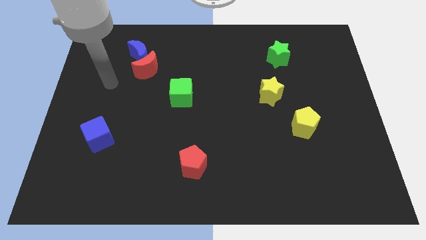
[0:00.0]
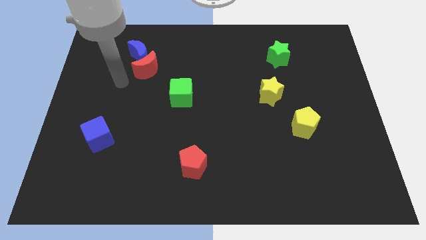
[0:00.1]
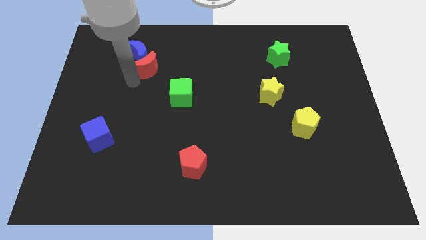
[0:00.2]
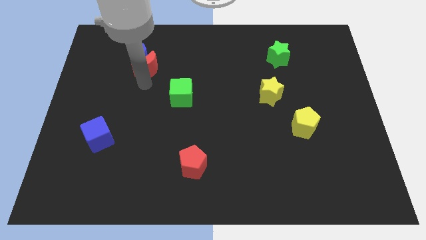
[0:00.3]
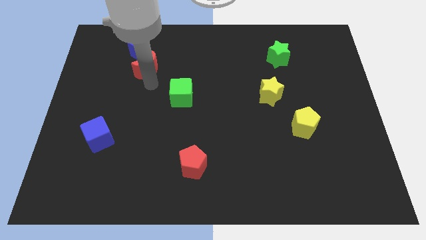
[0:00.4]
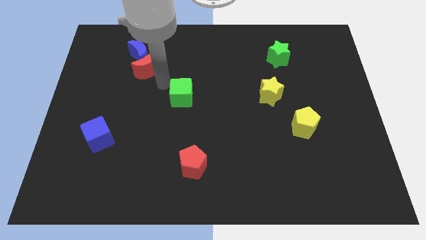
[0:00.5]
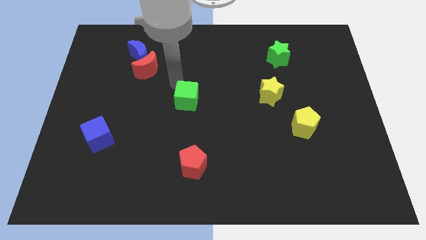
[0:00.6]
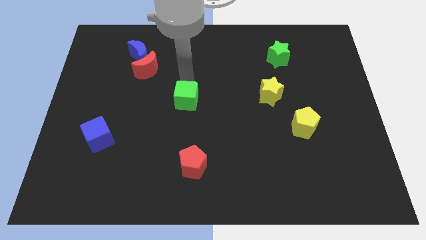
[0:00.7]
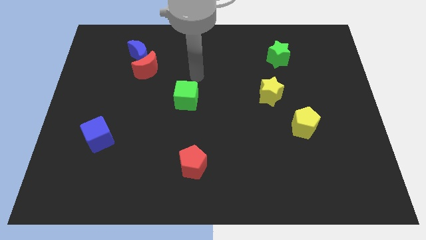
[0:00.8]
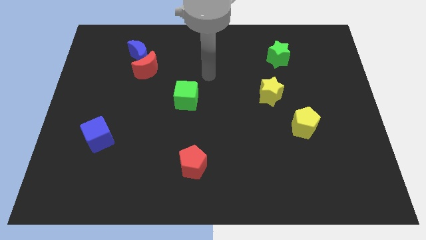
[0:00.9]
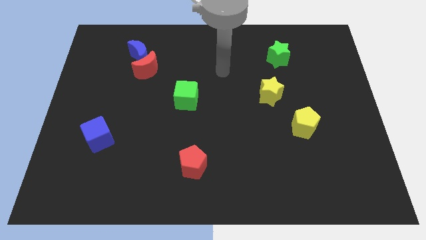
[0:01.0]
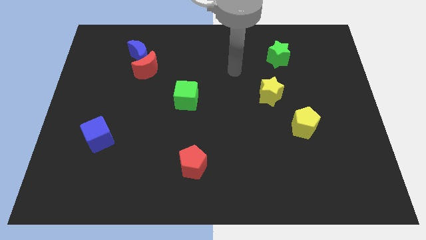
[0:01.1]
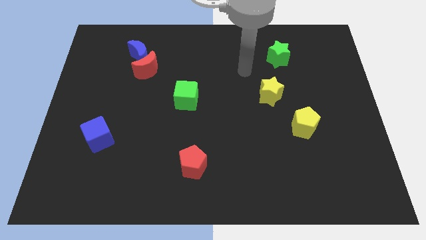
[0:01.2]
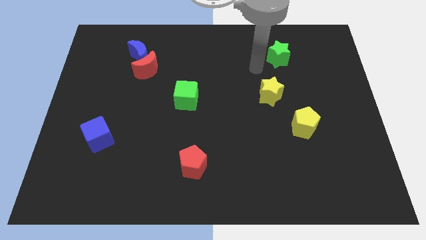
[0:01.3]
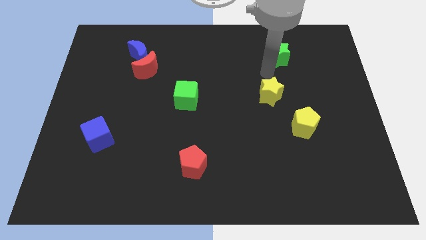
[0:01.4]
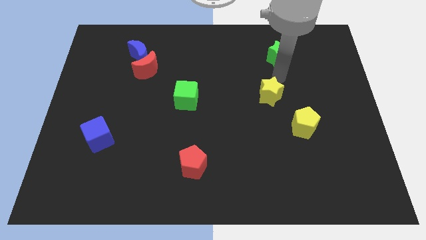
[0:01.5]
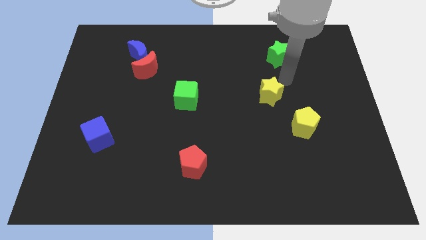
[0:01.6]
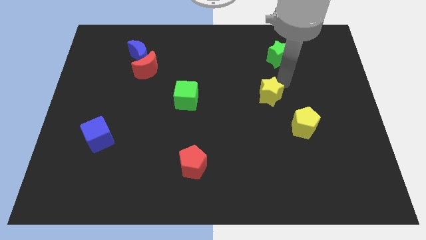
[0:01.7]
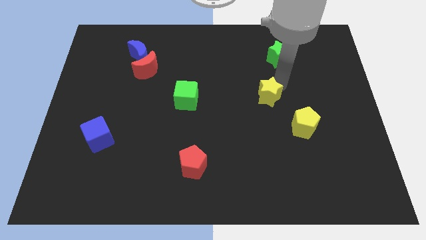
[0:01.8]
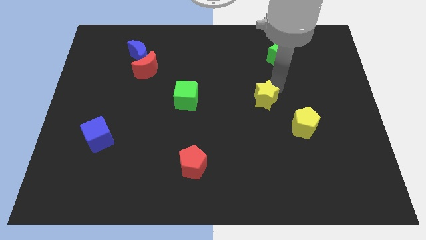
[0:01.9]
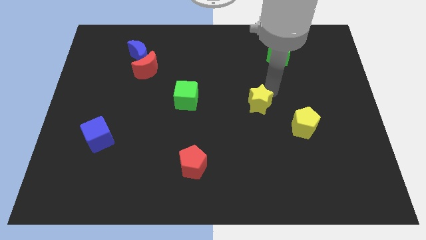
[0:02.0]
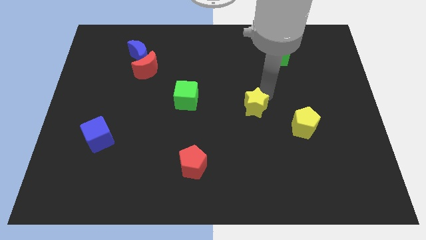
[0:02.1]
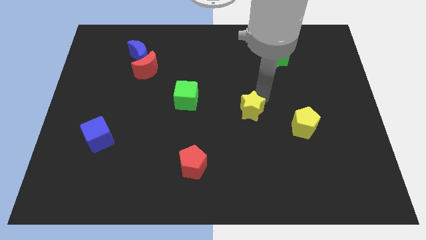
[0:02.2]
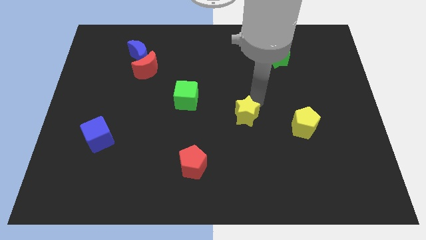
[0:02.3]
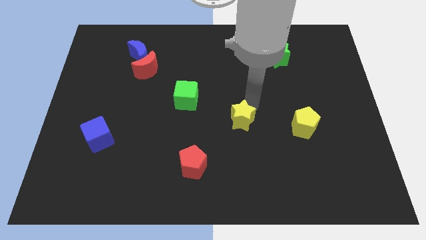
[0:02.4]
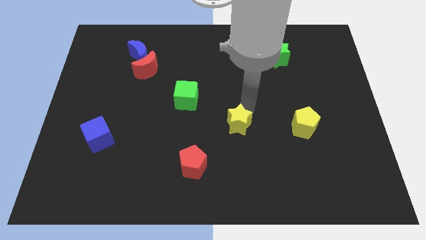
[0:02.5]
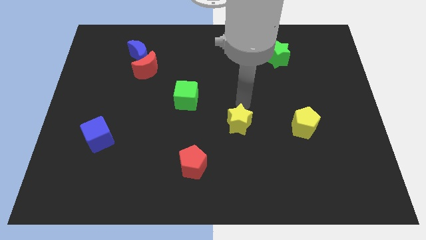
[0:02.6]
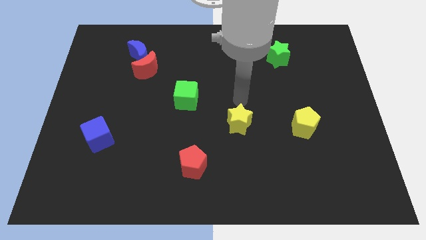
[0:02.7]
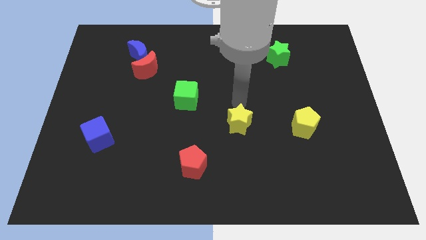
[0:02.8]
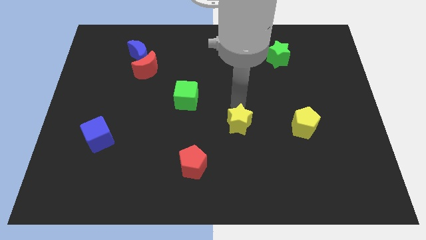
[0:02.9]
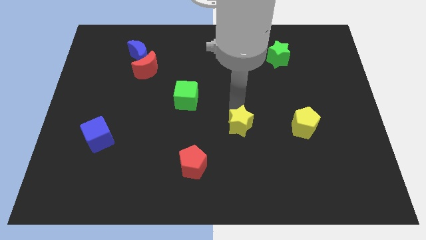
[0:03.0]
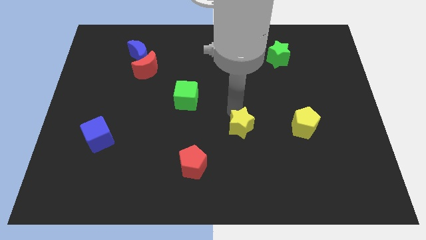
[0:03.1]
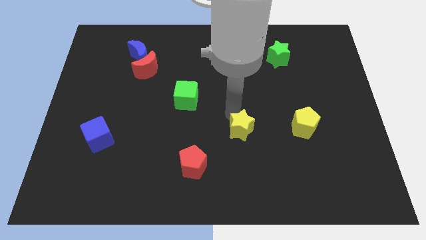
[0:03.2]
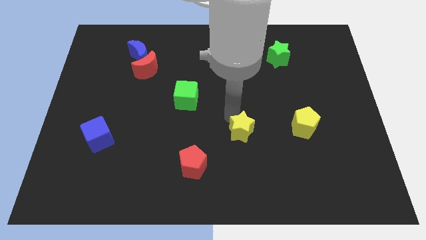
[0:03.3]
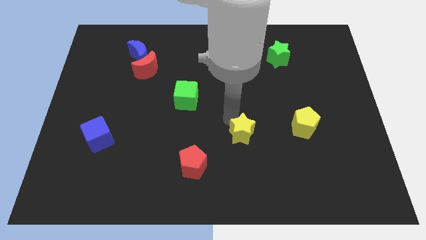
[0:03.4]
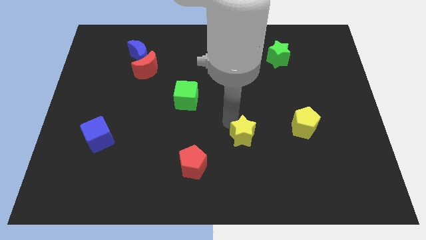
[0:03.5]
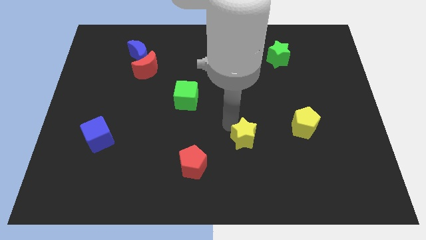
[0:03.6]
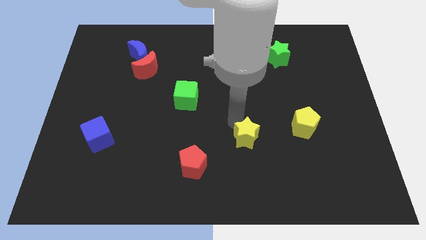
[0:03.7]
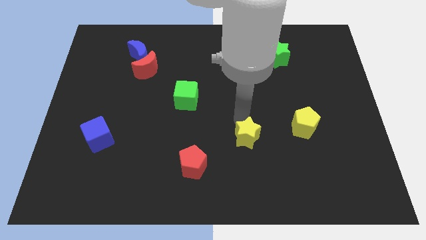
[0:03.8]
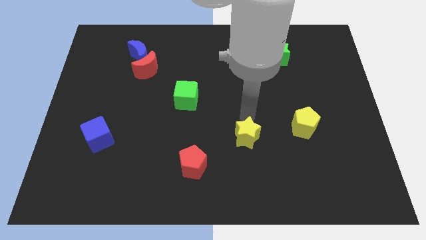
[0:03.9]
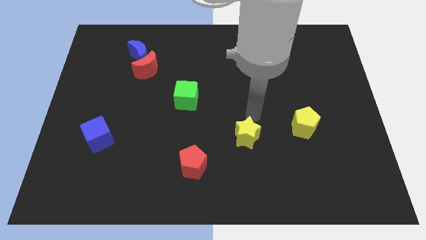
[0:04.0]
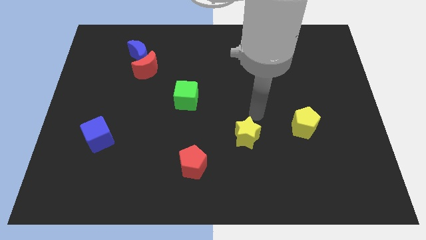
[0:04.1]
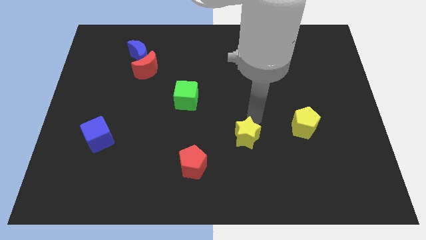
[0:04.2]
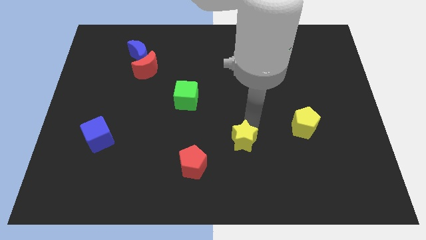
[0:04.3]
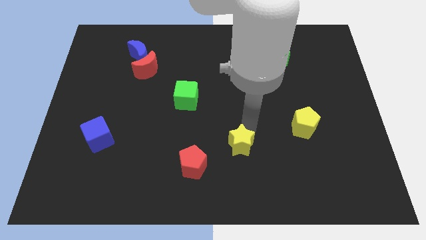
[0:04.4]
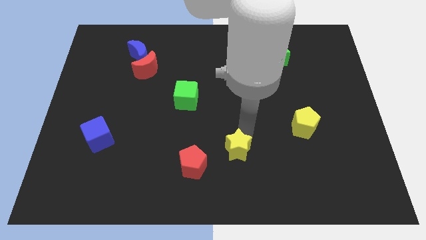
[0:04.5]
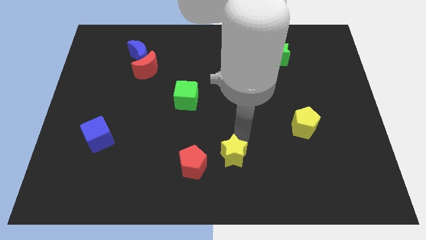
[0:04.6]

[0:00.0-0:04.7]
move the yellow star to the bottom

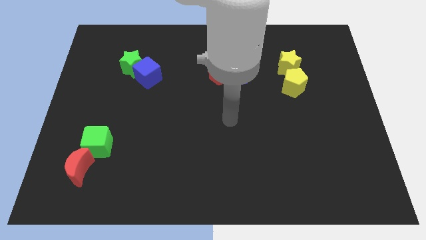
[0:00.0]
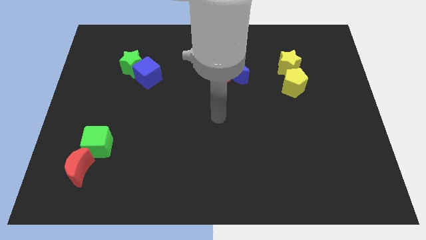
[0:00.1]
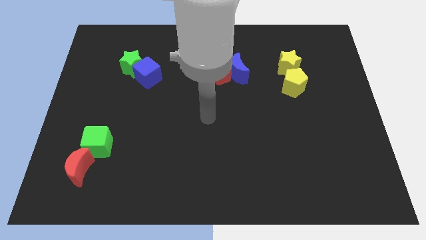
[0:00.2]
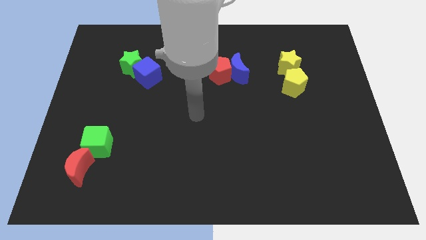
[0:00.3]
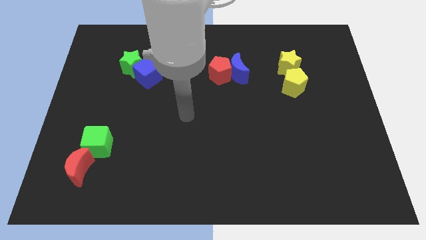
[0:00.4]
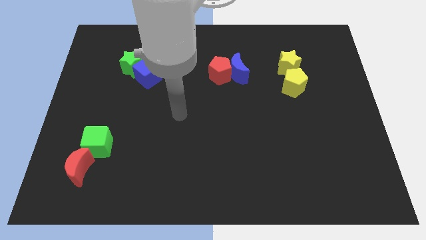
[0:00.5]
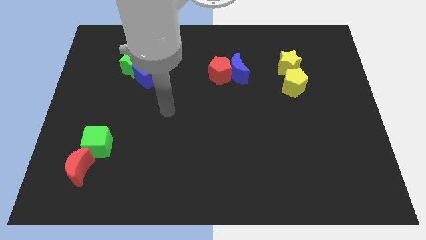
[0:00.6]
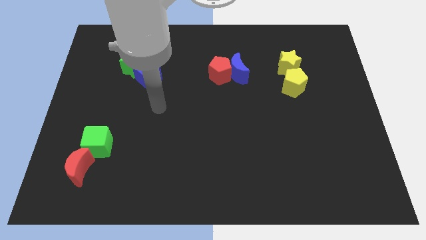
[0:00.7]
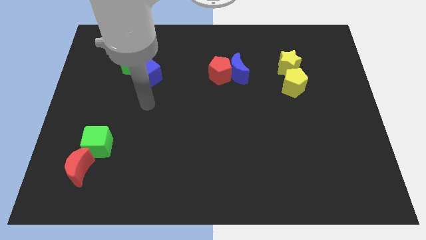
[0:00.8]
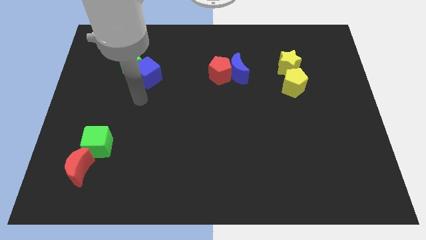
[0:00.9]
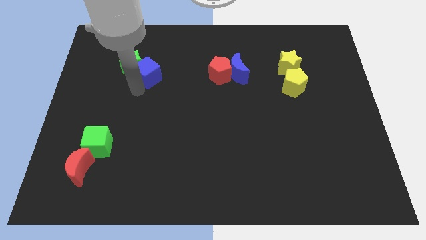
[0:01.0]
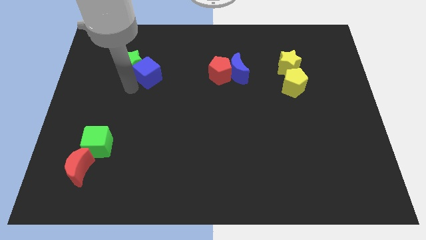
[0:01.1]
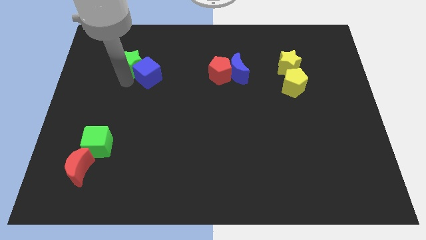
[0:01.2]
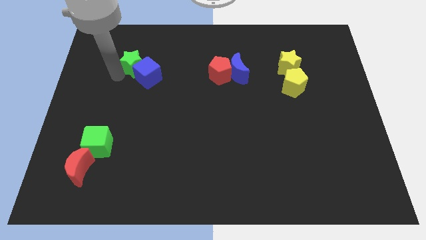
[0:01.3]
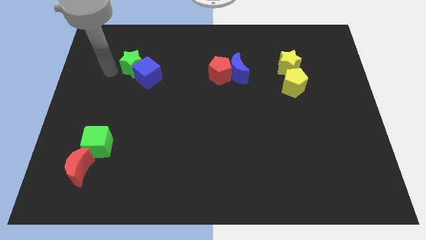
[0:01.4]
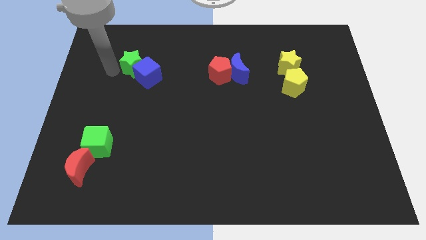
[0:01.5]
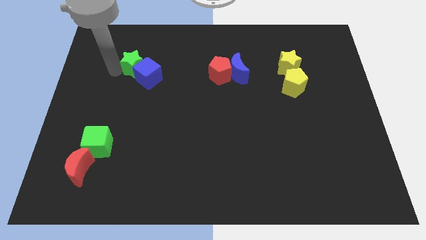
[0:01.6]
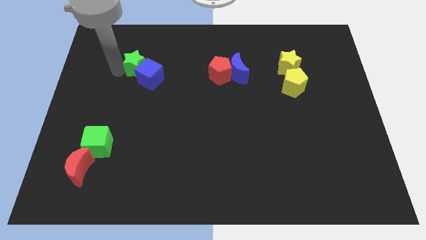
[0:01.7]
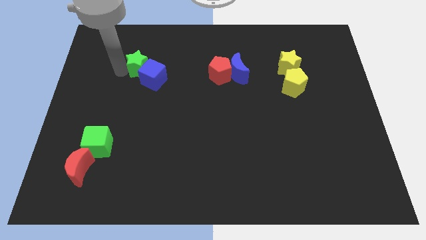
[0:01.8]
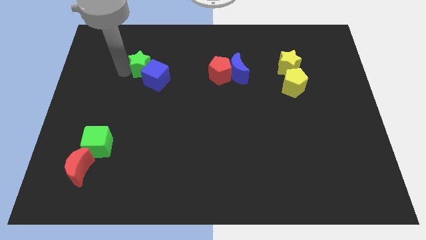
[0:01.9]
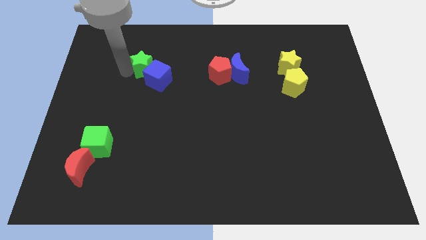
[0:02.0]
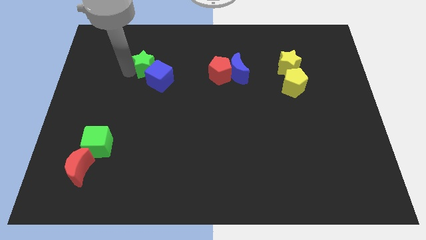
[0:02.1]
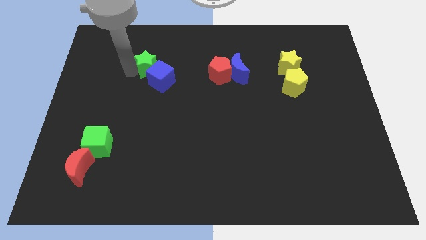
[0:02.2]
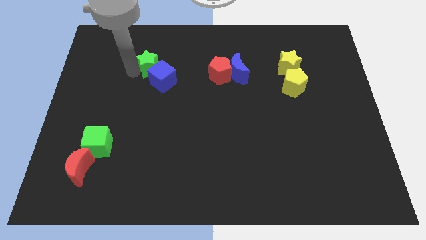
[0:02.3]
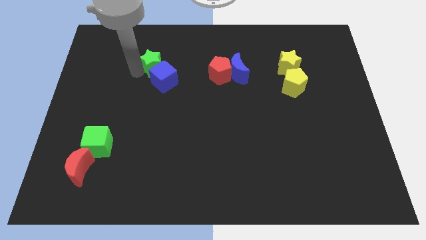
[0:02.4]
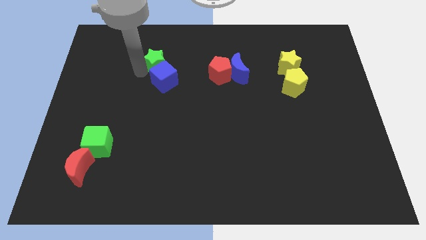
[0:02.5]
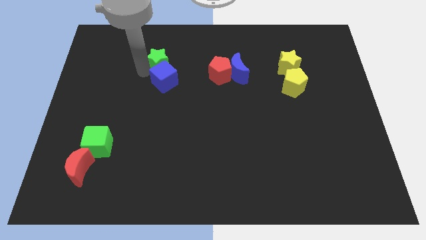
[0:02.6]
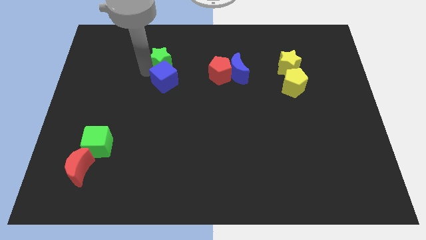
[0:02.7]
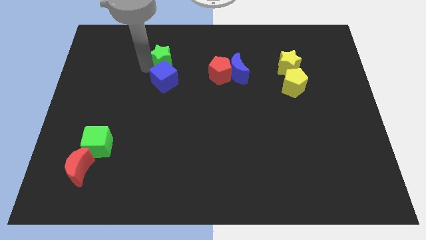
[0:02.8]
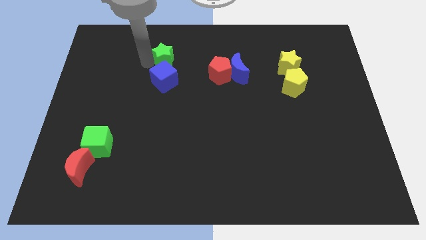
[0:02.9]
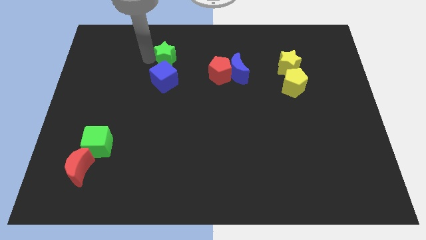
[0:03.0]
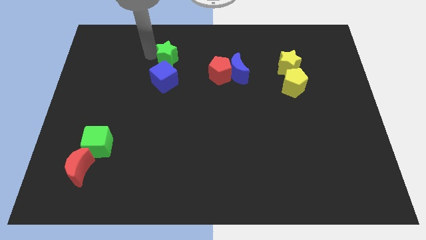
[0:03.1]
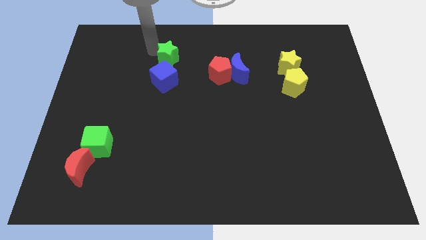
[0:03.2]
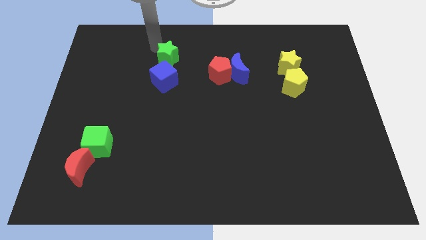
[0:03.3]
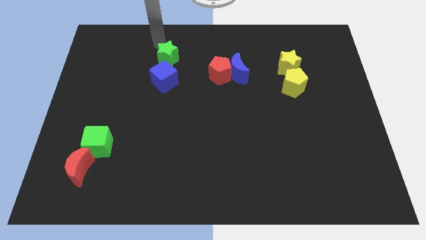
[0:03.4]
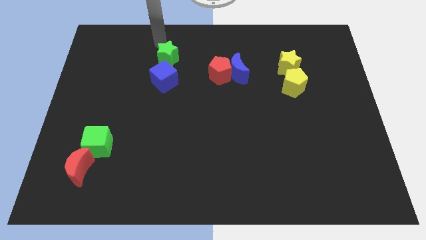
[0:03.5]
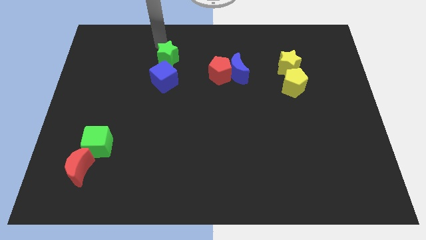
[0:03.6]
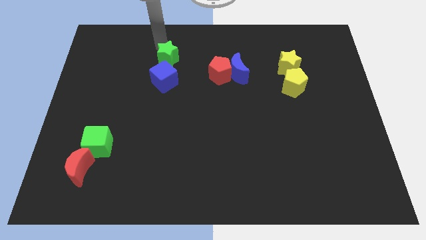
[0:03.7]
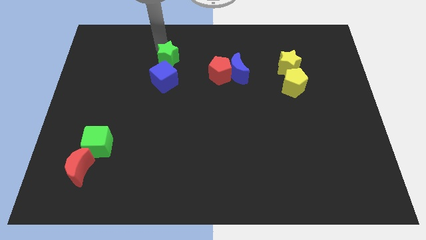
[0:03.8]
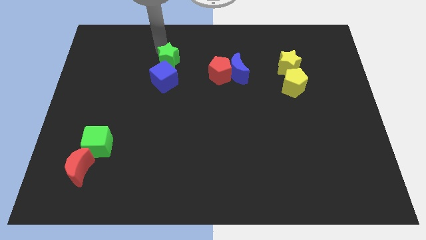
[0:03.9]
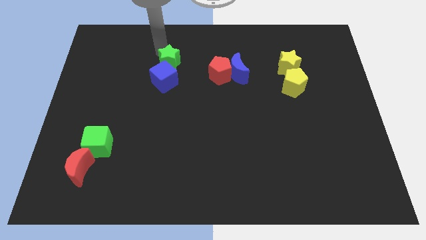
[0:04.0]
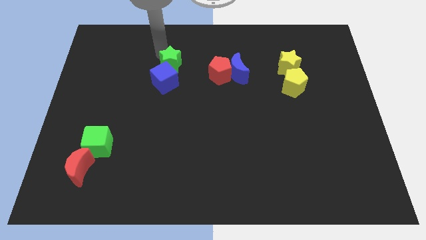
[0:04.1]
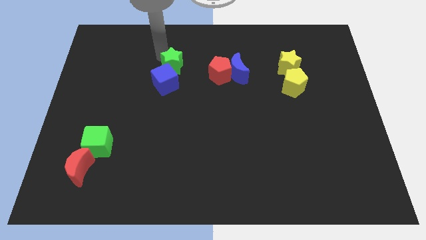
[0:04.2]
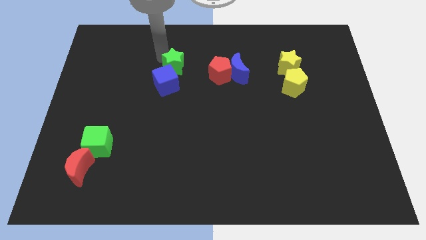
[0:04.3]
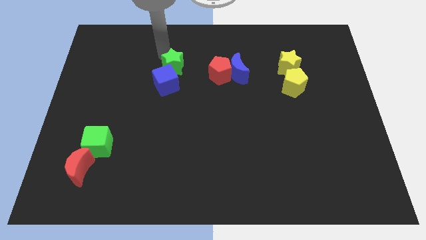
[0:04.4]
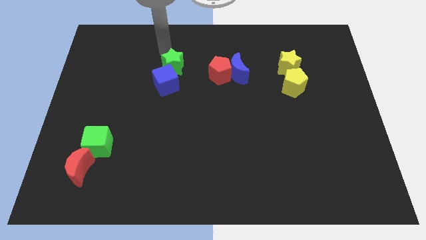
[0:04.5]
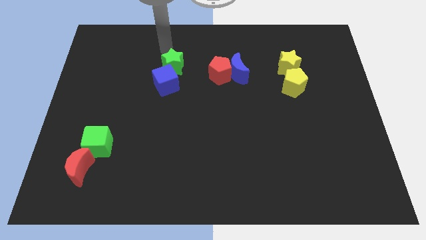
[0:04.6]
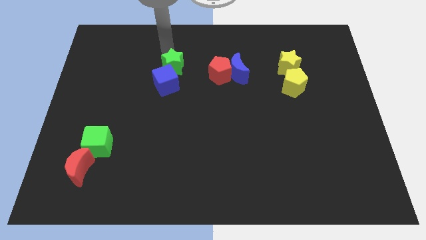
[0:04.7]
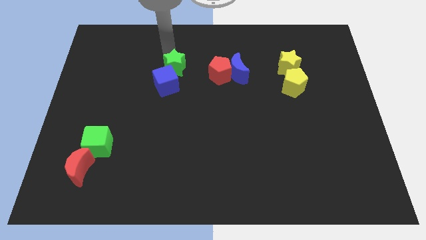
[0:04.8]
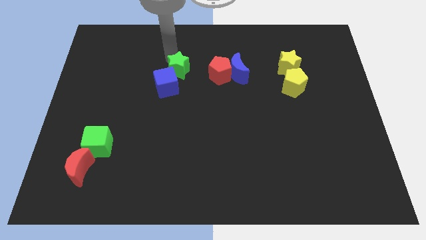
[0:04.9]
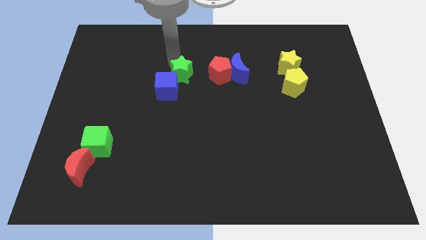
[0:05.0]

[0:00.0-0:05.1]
put the green star to the middle of the board
